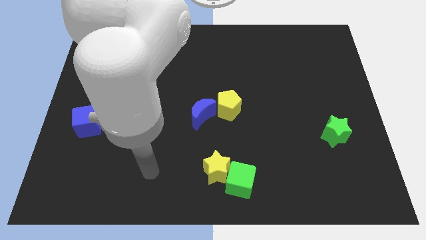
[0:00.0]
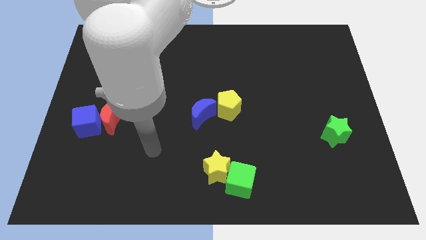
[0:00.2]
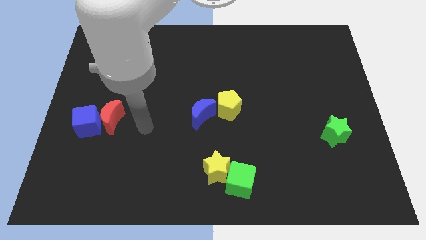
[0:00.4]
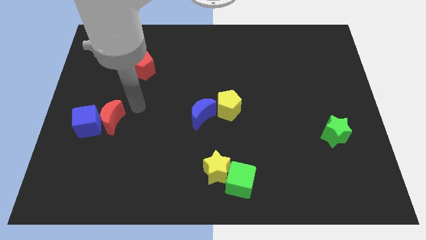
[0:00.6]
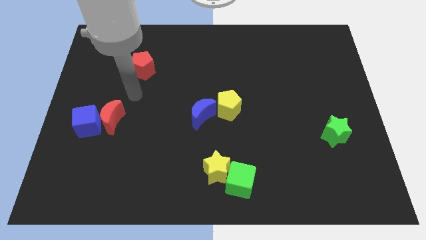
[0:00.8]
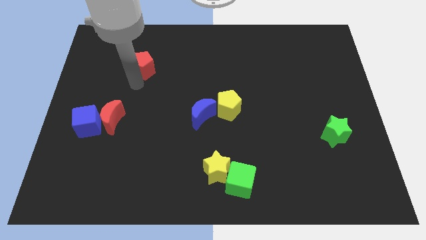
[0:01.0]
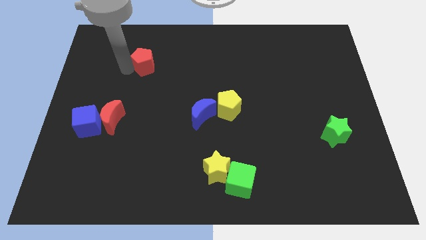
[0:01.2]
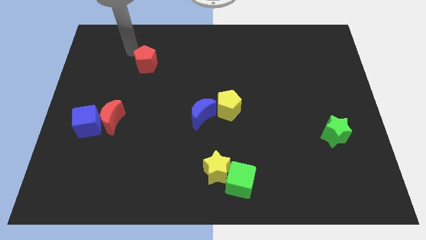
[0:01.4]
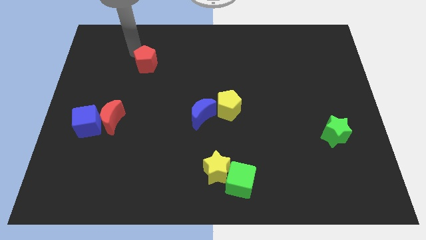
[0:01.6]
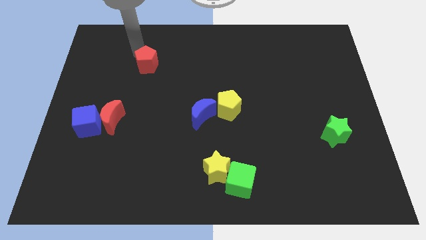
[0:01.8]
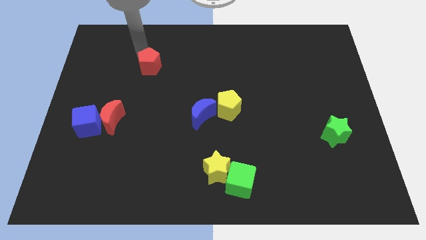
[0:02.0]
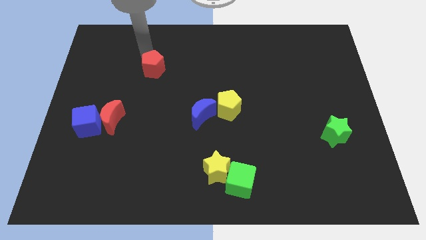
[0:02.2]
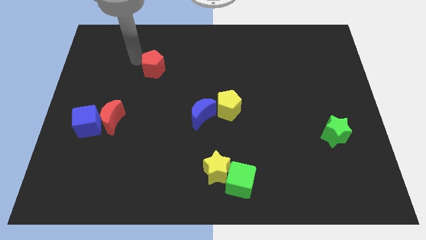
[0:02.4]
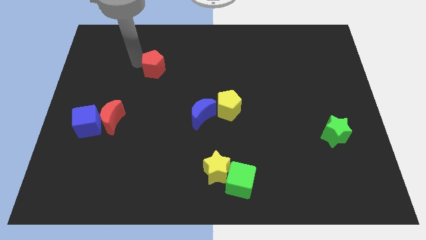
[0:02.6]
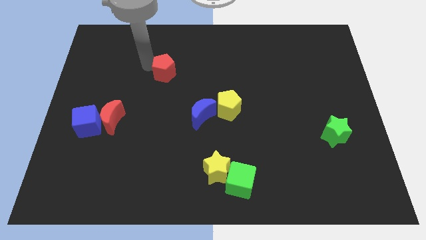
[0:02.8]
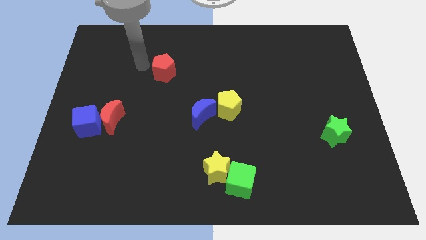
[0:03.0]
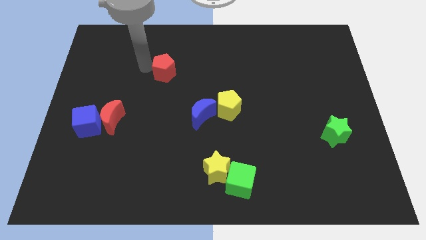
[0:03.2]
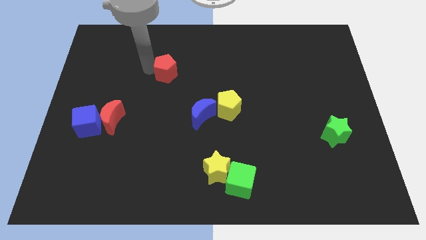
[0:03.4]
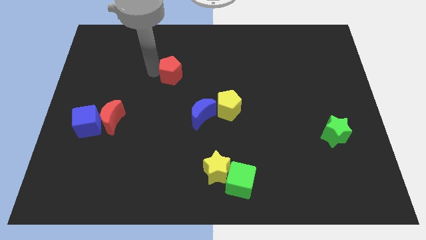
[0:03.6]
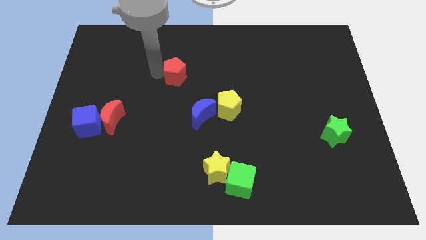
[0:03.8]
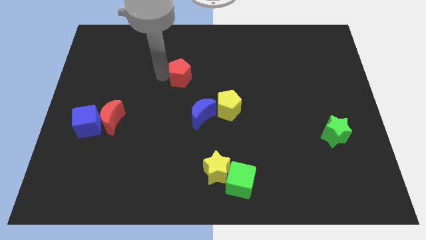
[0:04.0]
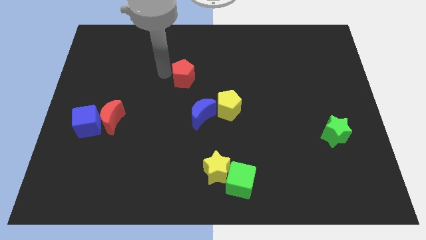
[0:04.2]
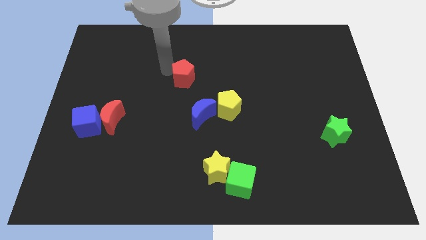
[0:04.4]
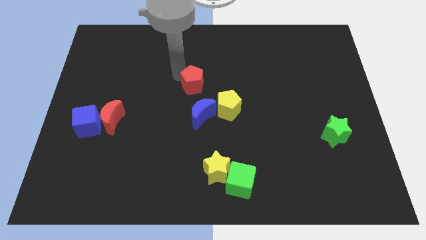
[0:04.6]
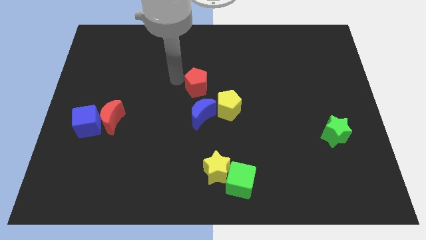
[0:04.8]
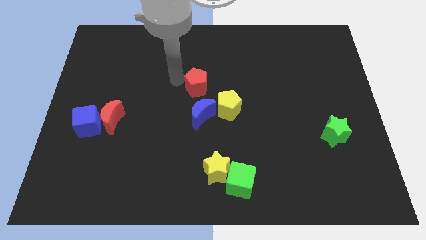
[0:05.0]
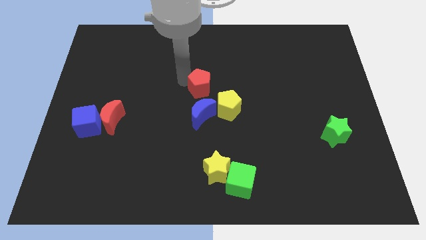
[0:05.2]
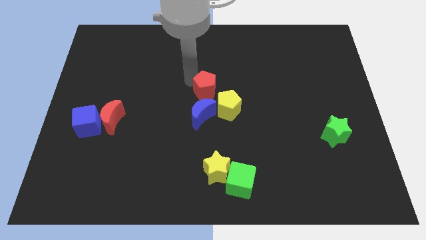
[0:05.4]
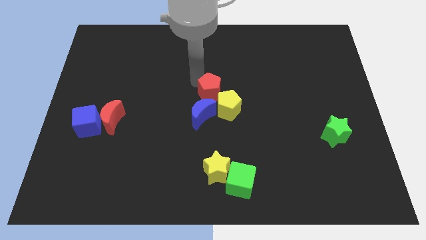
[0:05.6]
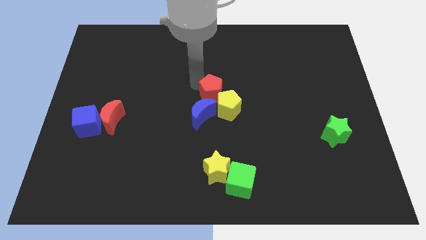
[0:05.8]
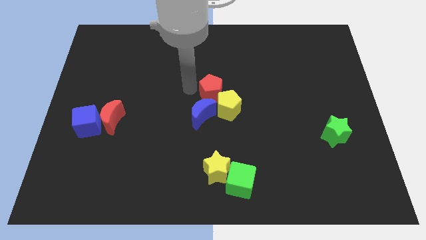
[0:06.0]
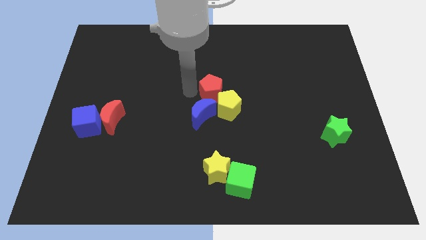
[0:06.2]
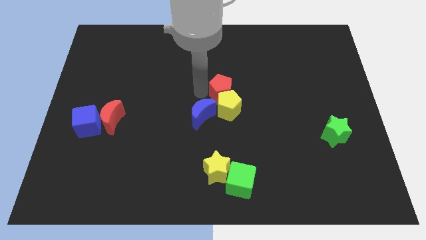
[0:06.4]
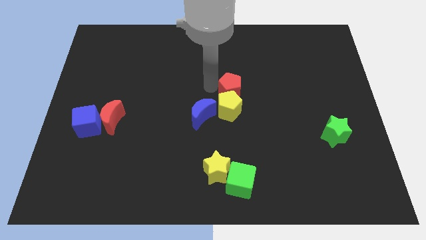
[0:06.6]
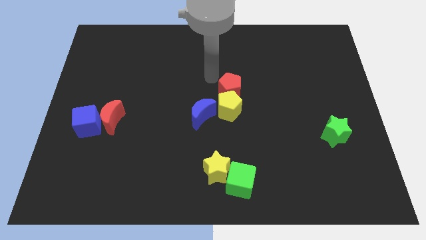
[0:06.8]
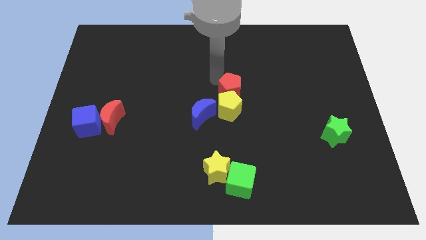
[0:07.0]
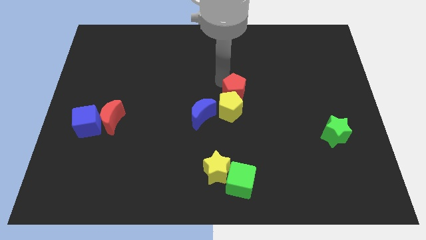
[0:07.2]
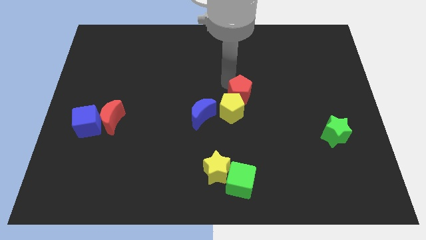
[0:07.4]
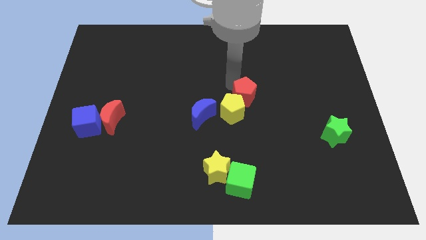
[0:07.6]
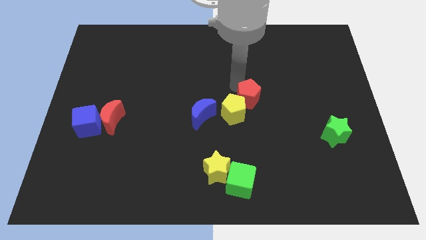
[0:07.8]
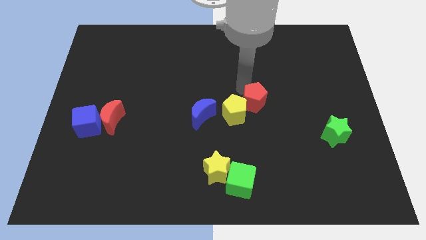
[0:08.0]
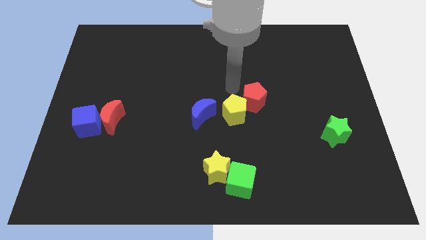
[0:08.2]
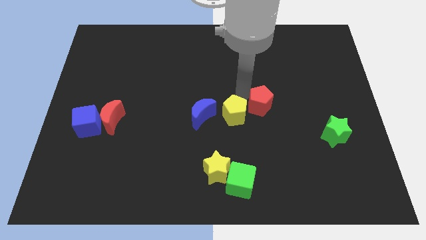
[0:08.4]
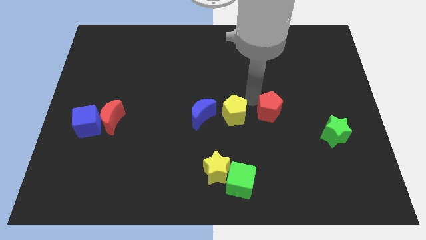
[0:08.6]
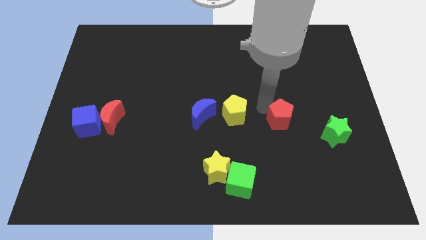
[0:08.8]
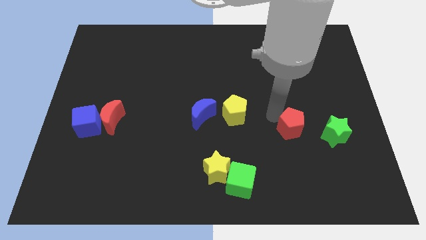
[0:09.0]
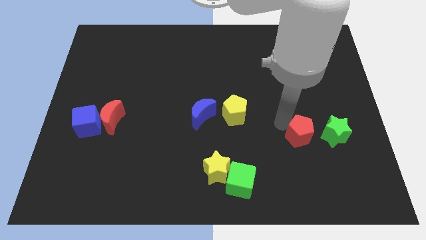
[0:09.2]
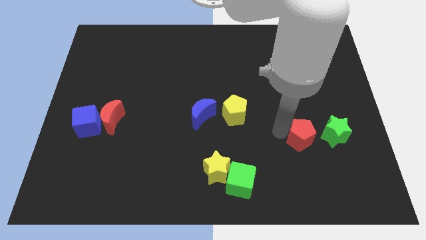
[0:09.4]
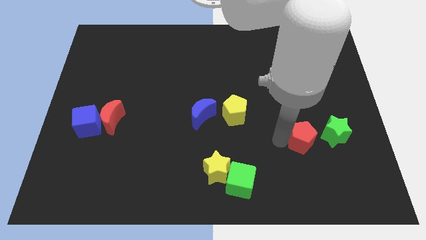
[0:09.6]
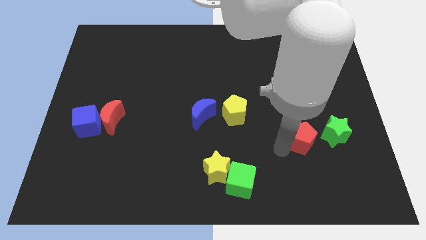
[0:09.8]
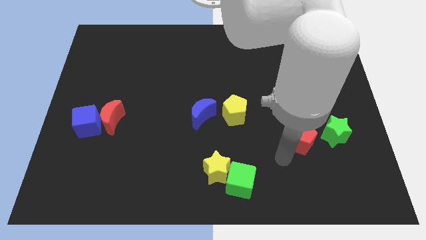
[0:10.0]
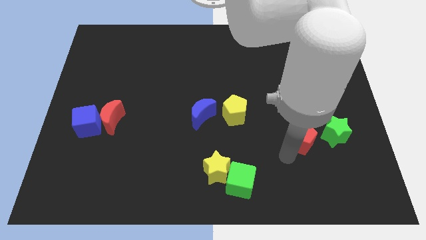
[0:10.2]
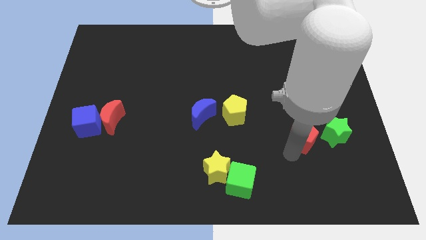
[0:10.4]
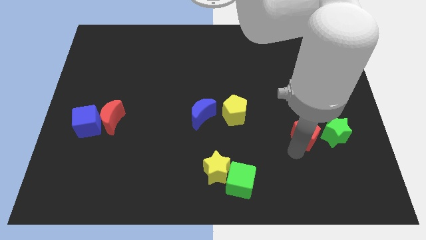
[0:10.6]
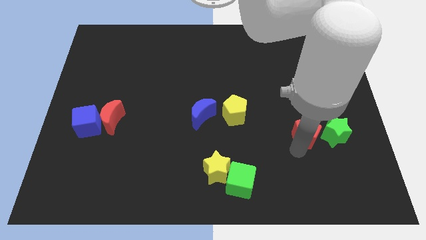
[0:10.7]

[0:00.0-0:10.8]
push the red pentagon towards the green star

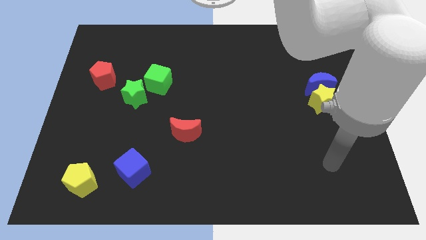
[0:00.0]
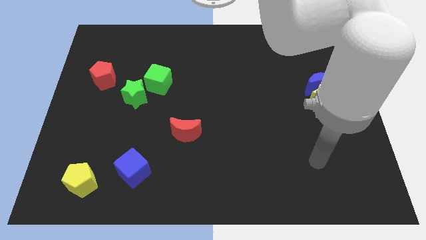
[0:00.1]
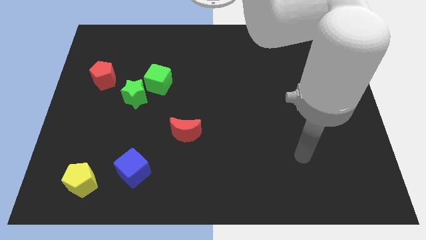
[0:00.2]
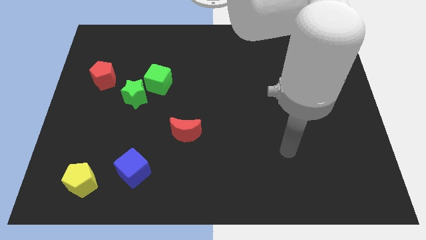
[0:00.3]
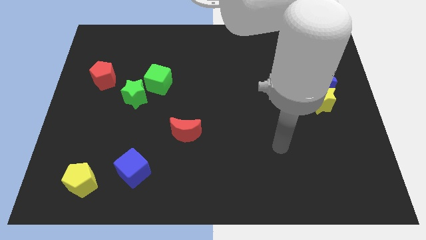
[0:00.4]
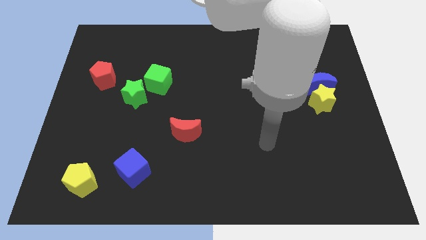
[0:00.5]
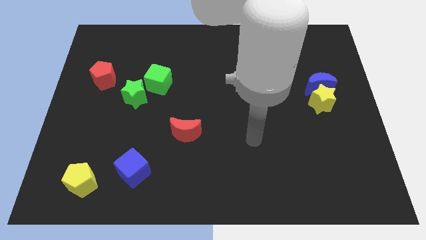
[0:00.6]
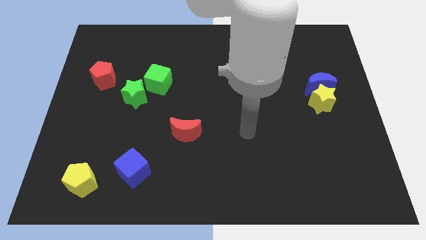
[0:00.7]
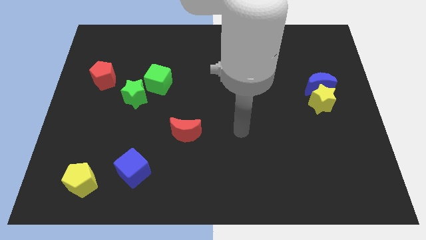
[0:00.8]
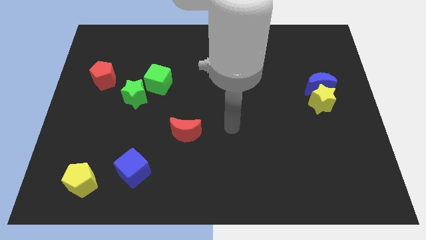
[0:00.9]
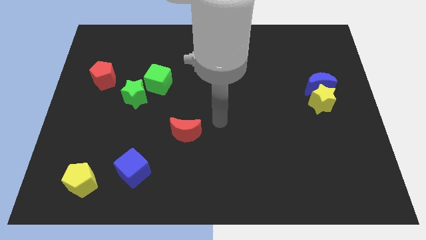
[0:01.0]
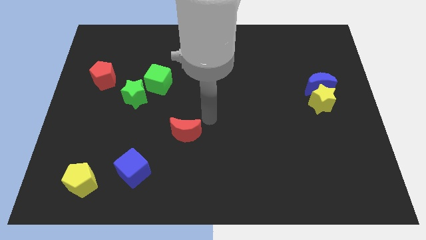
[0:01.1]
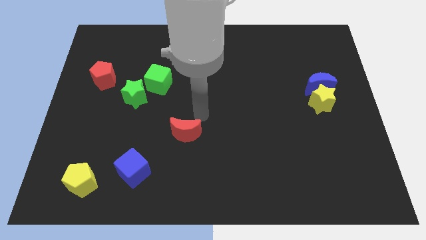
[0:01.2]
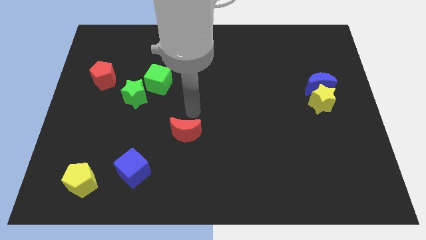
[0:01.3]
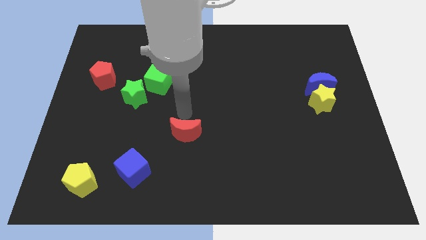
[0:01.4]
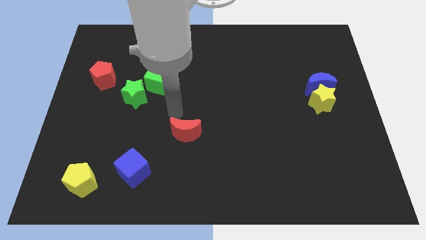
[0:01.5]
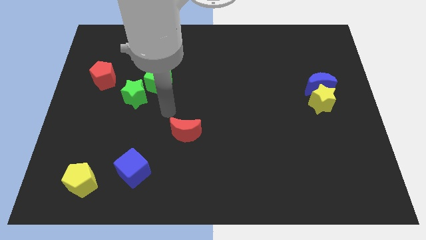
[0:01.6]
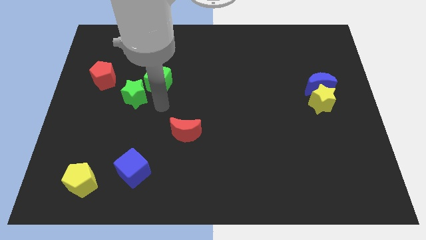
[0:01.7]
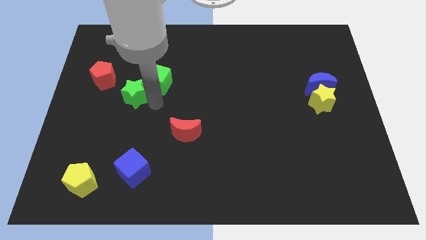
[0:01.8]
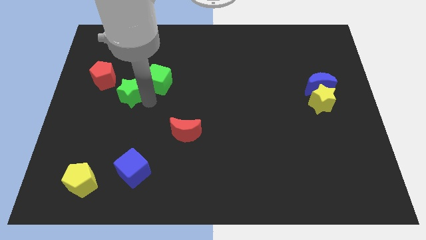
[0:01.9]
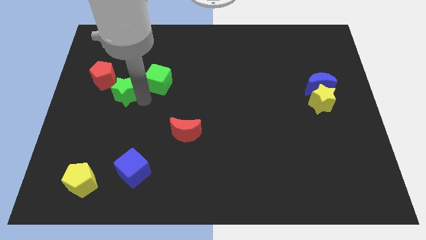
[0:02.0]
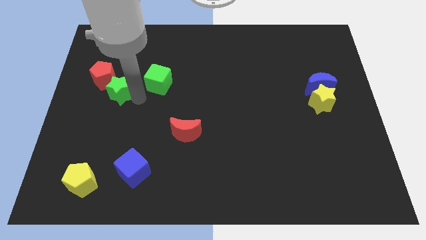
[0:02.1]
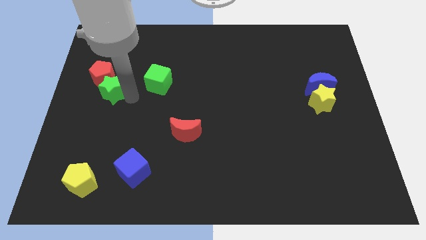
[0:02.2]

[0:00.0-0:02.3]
move the green star next to the red pentagon
